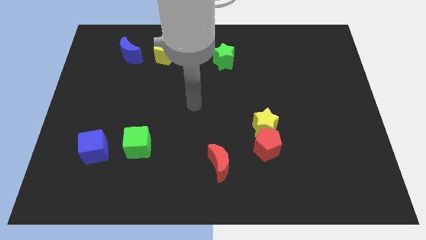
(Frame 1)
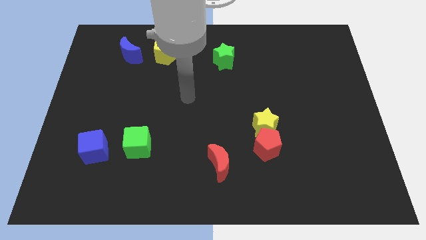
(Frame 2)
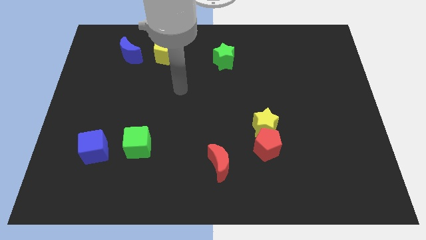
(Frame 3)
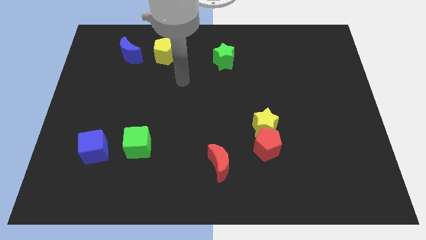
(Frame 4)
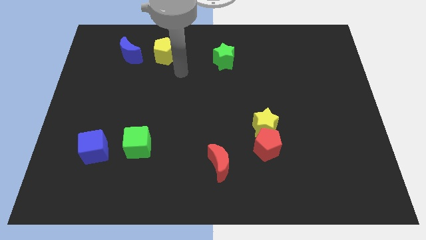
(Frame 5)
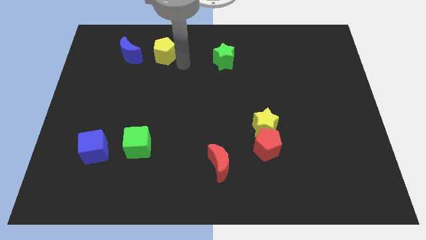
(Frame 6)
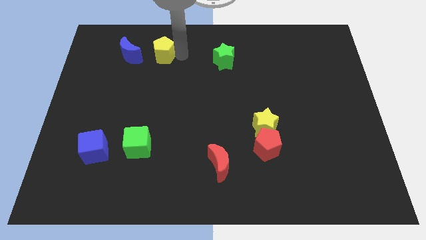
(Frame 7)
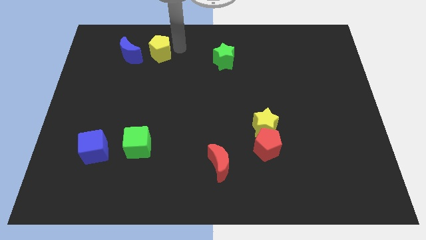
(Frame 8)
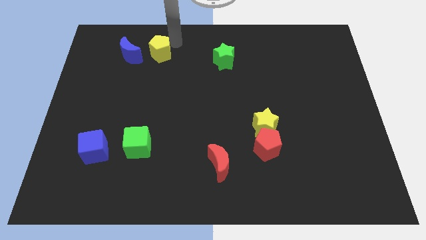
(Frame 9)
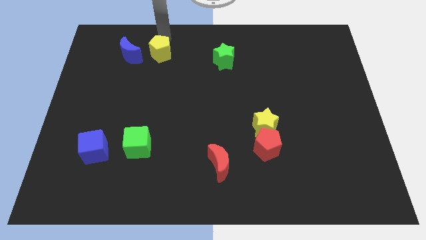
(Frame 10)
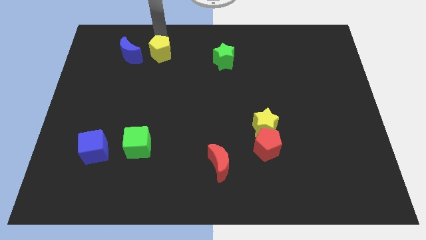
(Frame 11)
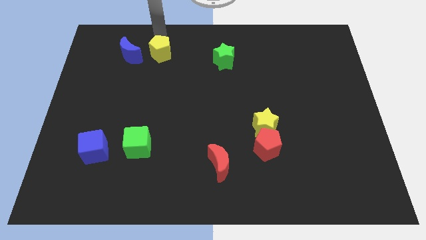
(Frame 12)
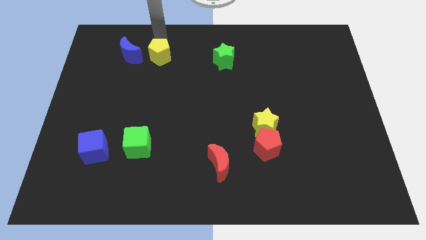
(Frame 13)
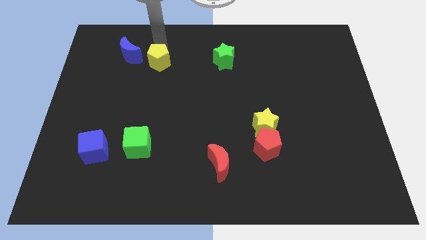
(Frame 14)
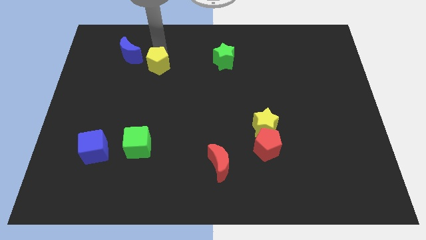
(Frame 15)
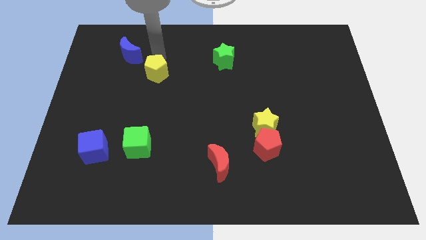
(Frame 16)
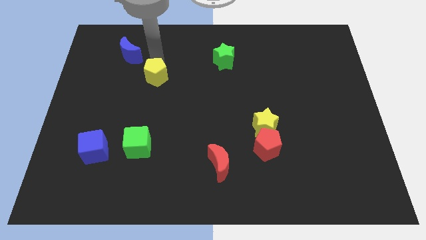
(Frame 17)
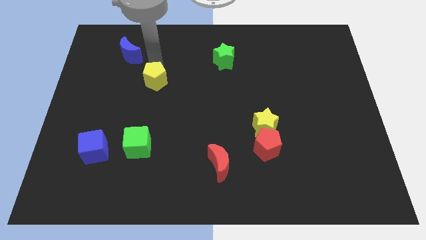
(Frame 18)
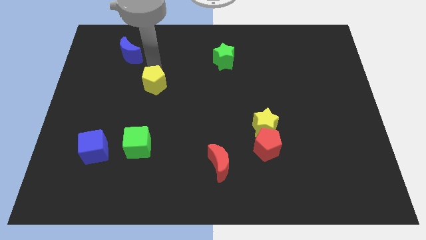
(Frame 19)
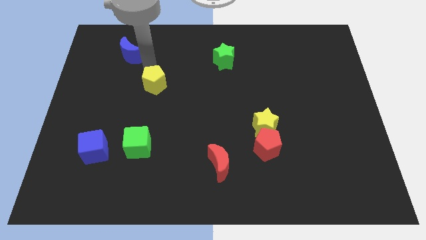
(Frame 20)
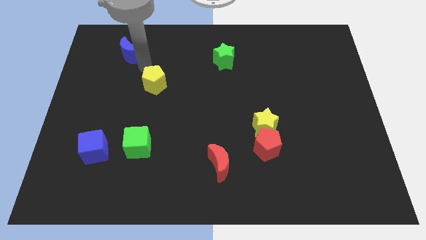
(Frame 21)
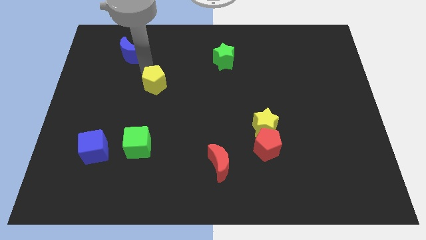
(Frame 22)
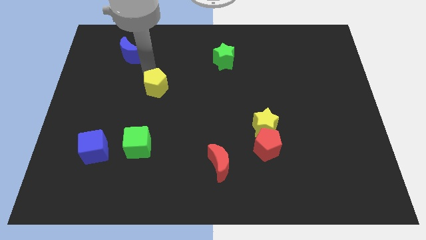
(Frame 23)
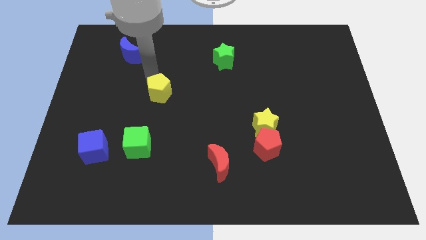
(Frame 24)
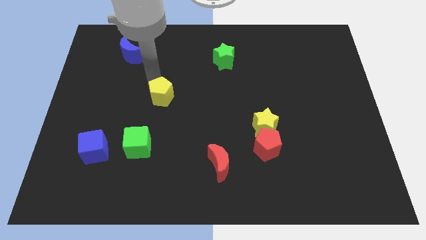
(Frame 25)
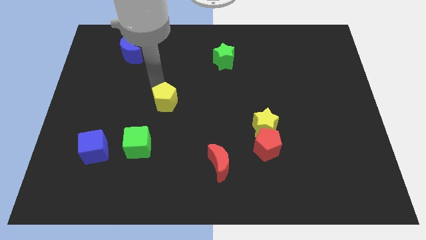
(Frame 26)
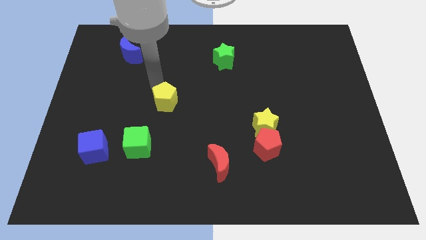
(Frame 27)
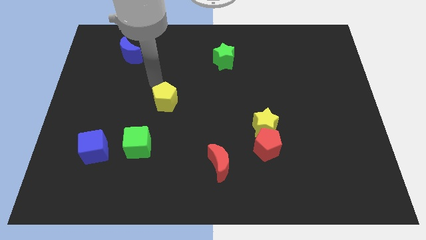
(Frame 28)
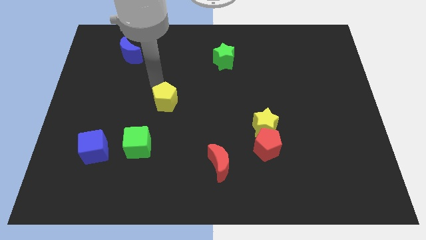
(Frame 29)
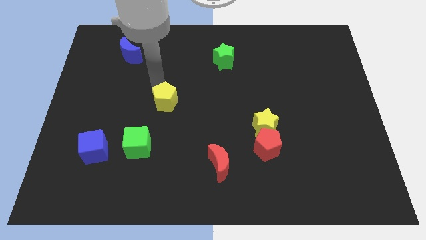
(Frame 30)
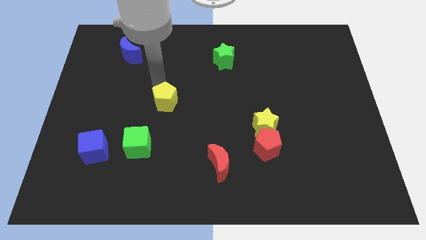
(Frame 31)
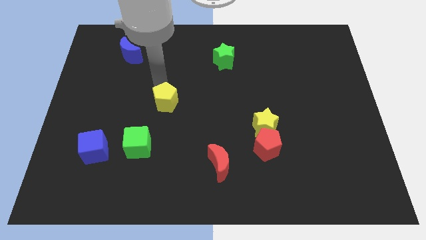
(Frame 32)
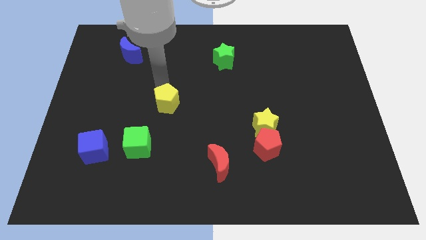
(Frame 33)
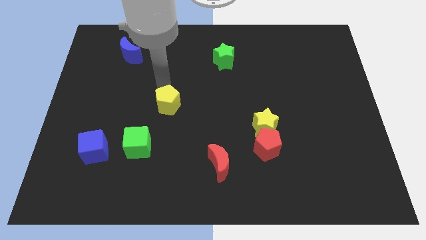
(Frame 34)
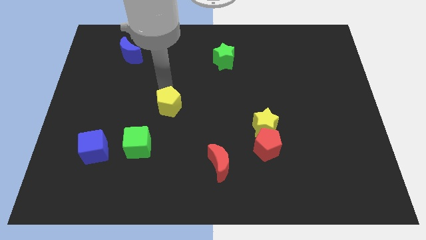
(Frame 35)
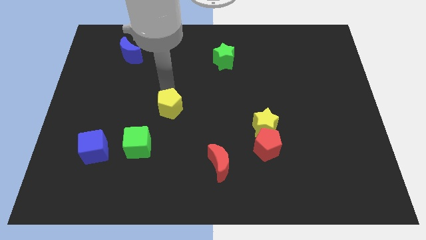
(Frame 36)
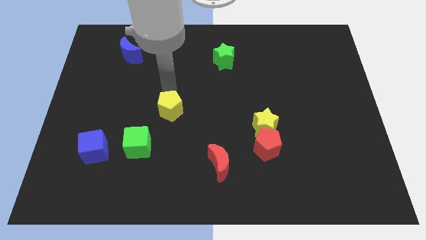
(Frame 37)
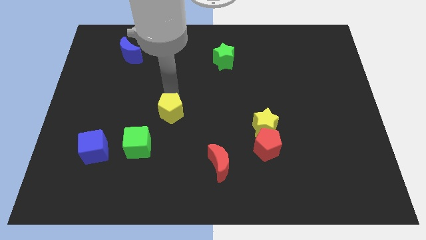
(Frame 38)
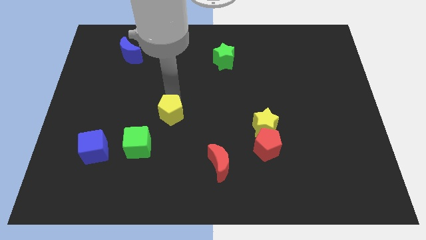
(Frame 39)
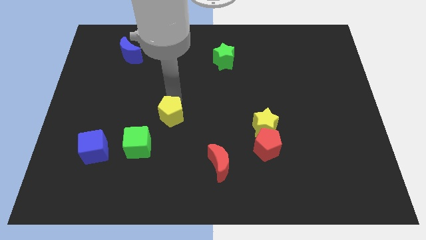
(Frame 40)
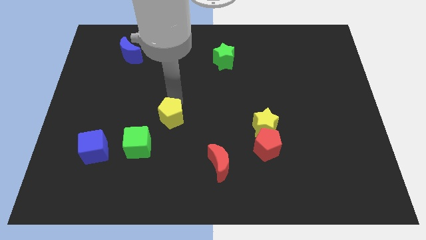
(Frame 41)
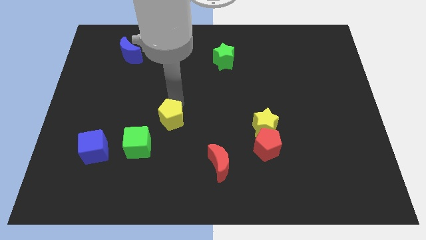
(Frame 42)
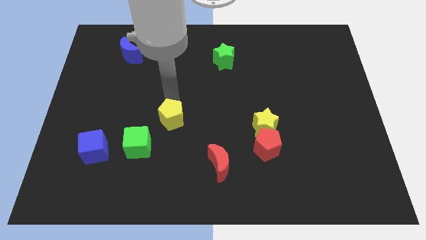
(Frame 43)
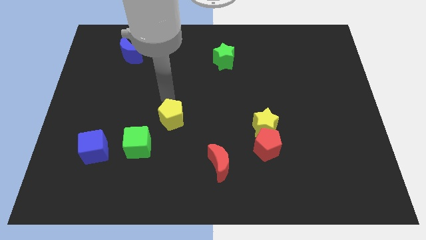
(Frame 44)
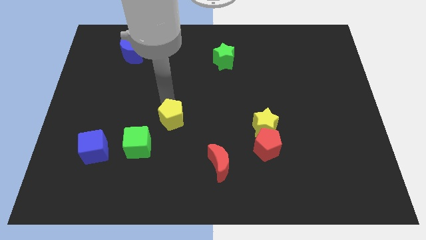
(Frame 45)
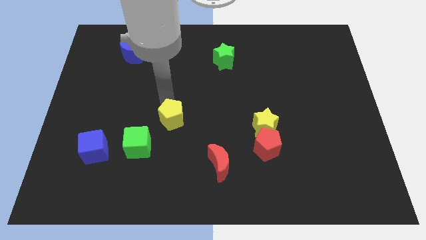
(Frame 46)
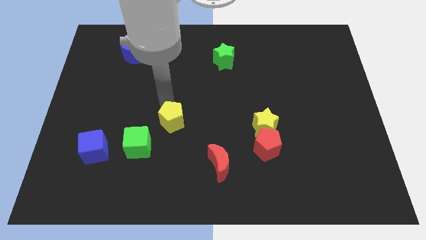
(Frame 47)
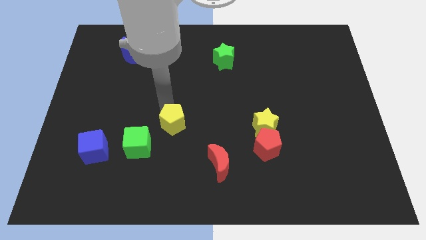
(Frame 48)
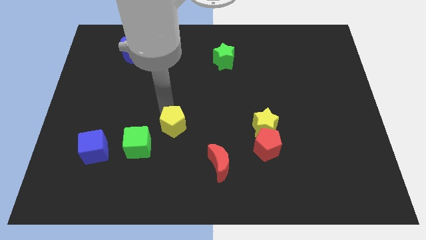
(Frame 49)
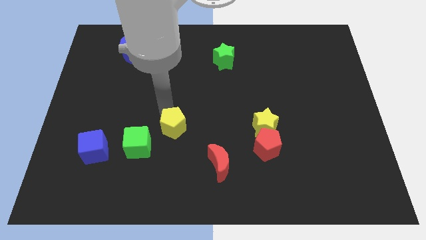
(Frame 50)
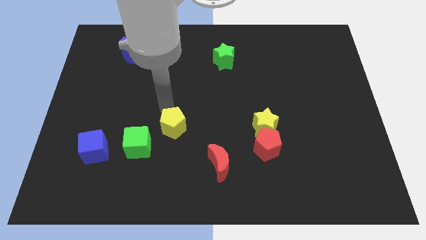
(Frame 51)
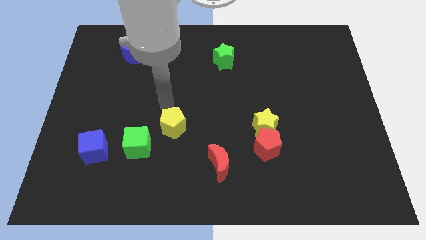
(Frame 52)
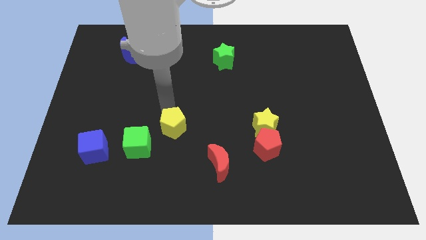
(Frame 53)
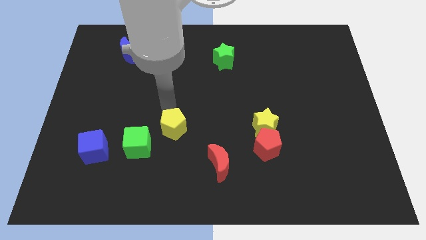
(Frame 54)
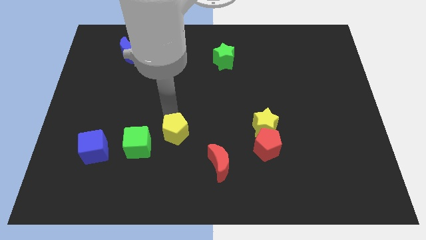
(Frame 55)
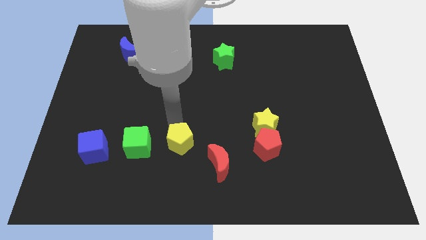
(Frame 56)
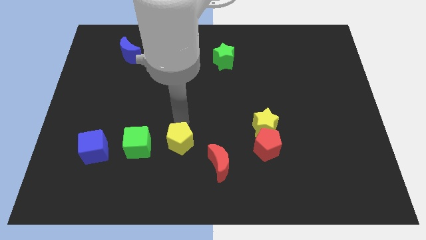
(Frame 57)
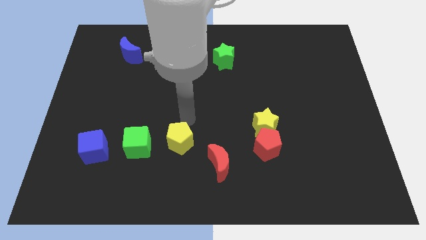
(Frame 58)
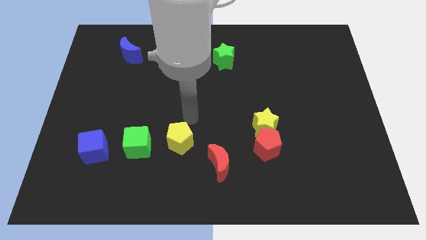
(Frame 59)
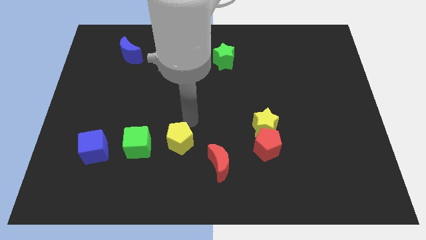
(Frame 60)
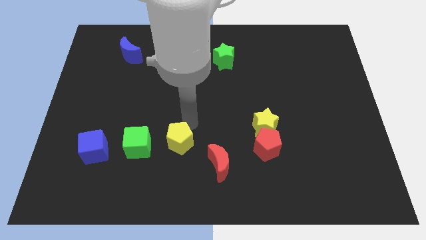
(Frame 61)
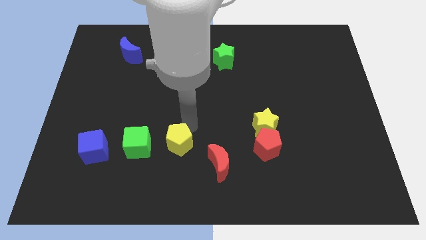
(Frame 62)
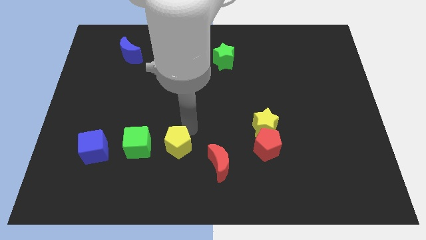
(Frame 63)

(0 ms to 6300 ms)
put the yellow pentagon to the left of the red moon

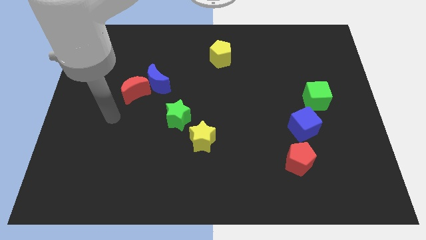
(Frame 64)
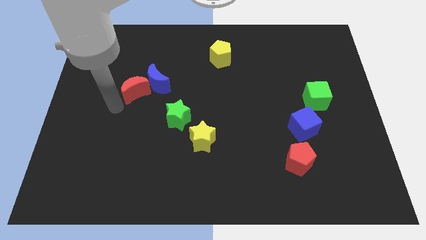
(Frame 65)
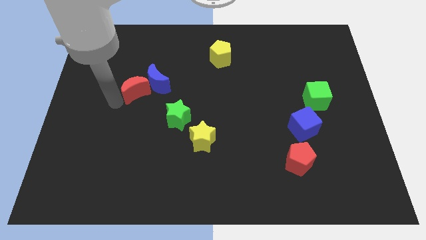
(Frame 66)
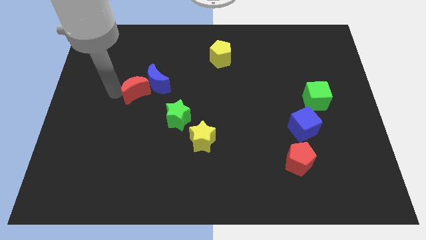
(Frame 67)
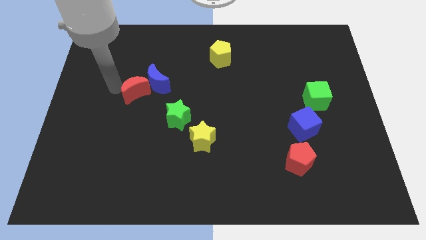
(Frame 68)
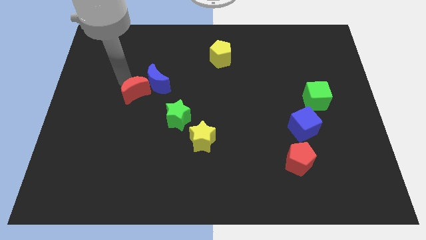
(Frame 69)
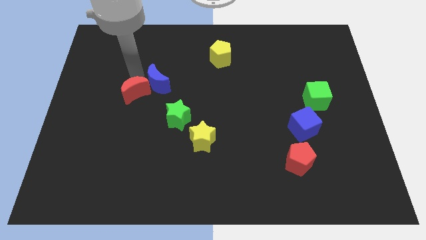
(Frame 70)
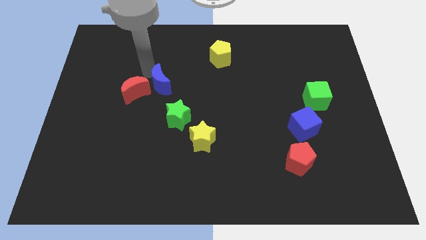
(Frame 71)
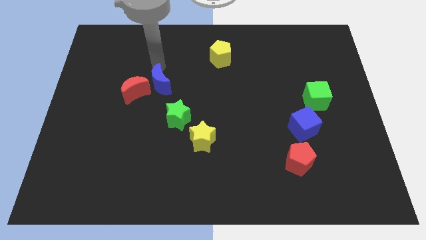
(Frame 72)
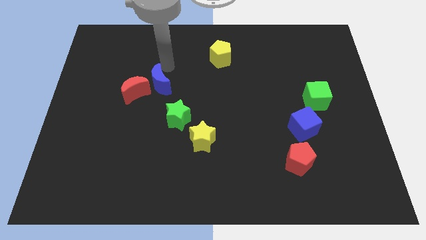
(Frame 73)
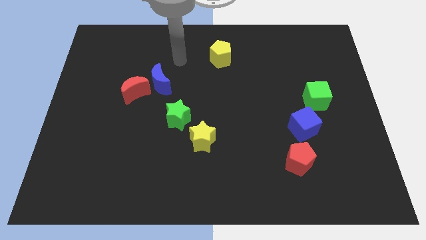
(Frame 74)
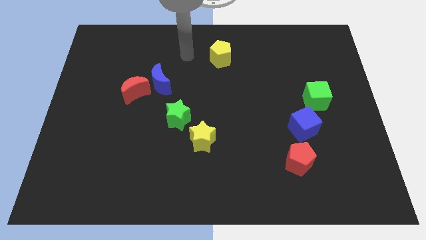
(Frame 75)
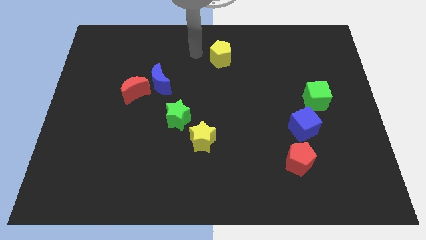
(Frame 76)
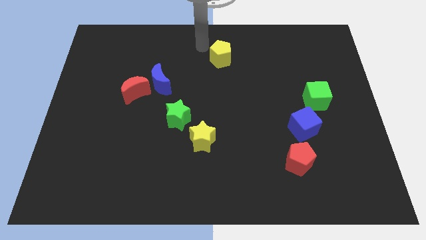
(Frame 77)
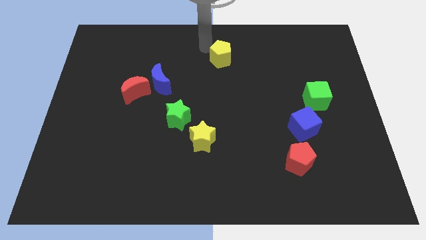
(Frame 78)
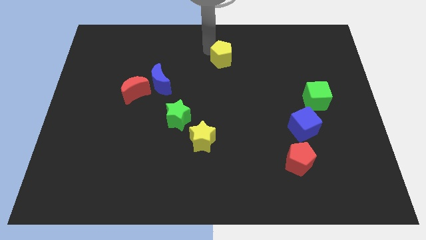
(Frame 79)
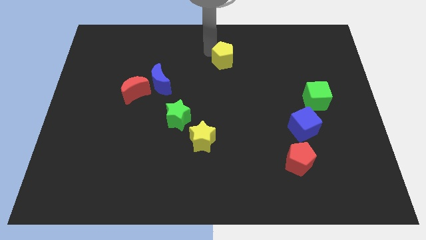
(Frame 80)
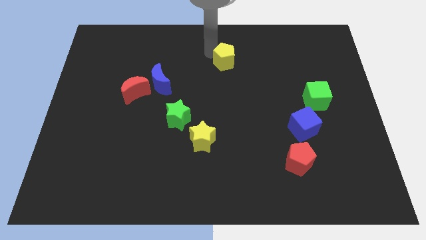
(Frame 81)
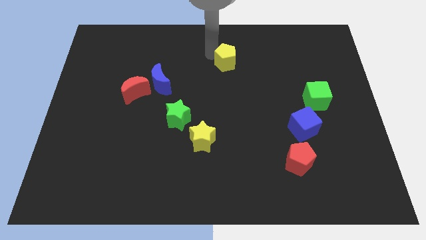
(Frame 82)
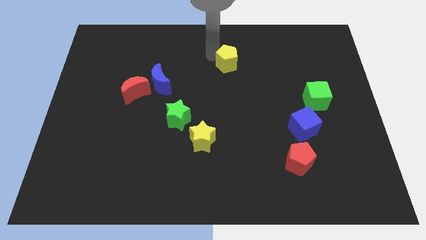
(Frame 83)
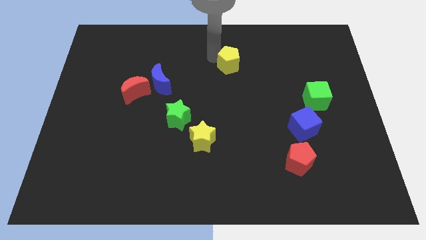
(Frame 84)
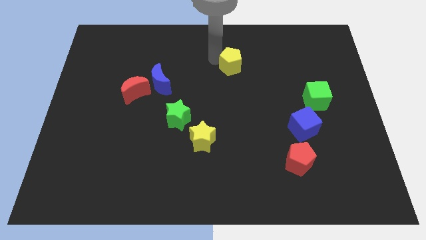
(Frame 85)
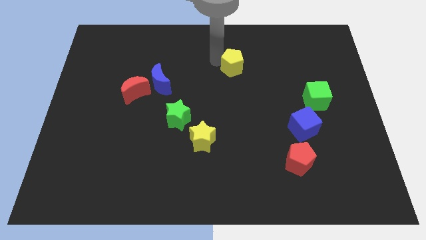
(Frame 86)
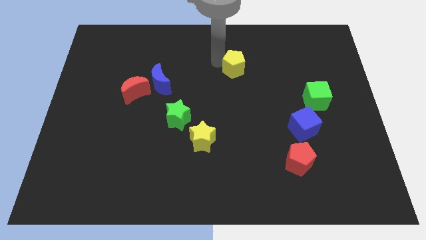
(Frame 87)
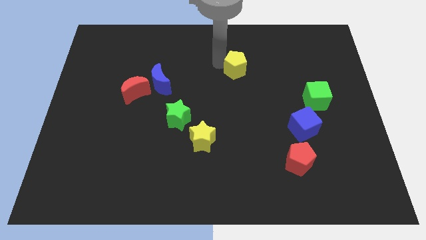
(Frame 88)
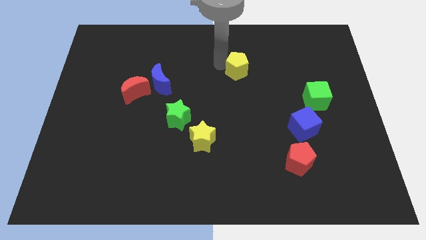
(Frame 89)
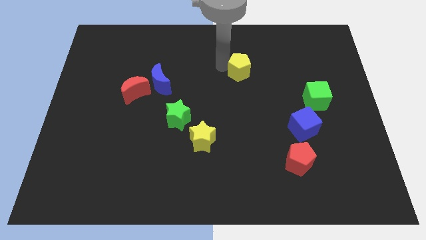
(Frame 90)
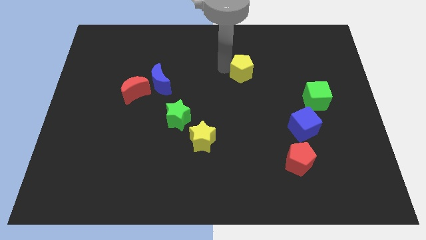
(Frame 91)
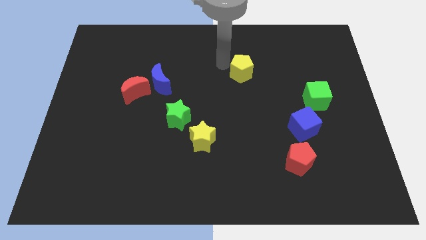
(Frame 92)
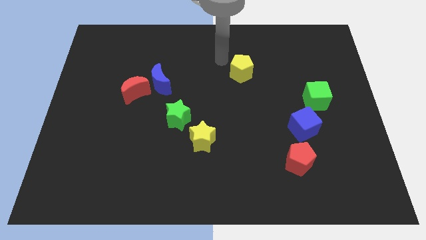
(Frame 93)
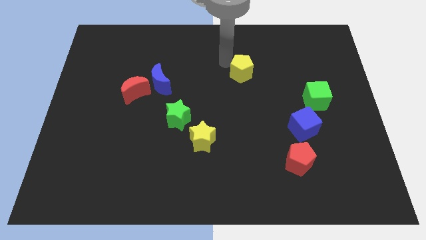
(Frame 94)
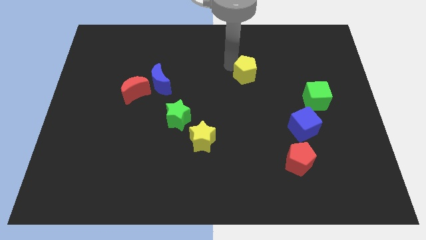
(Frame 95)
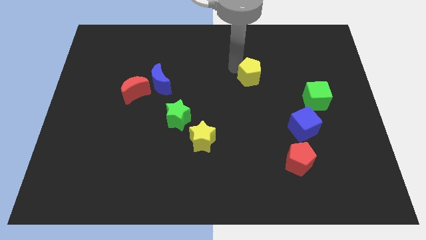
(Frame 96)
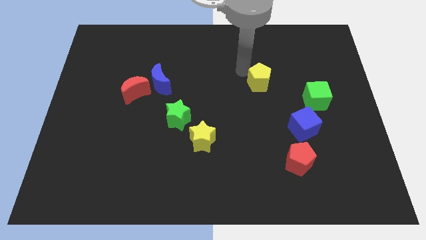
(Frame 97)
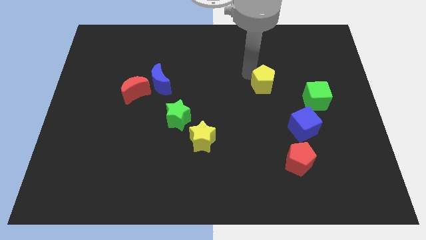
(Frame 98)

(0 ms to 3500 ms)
push the yellow pentagon to the left of the green cube
